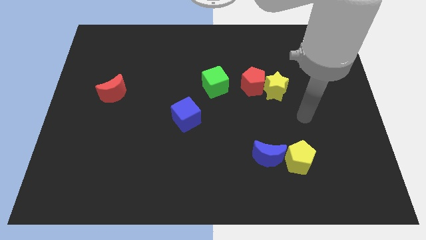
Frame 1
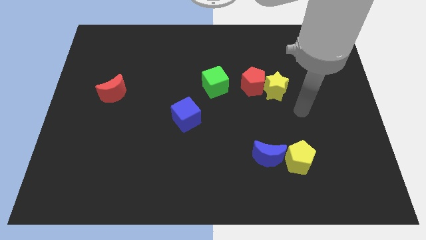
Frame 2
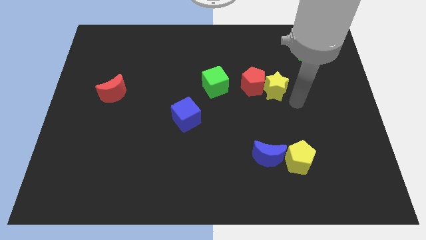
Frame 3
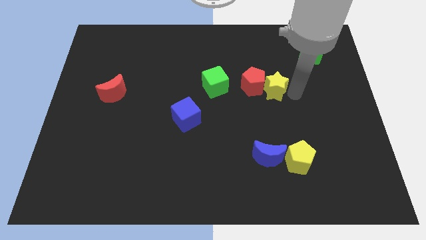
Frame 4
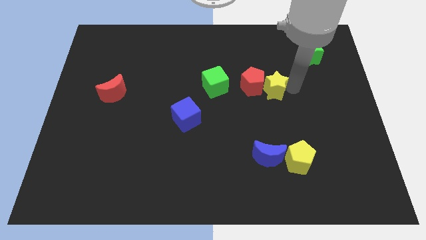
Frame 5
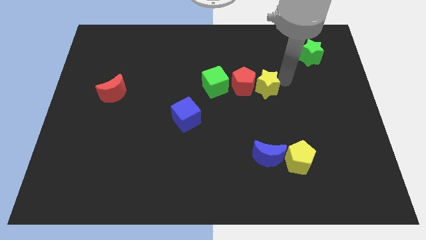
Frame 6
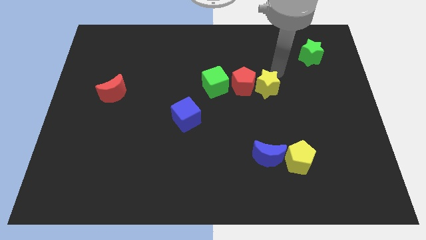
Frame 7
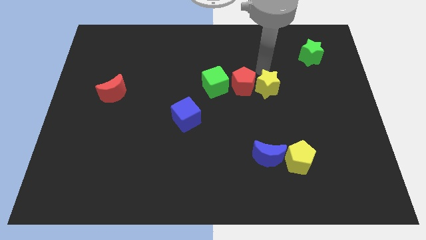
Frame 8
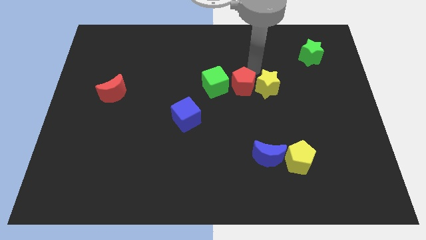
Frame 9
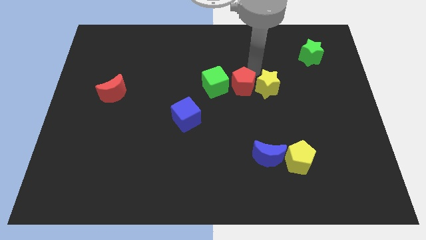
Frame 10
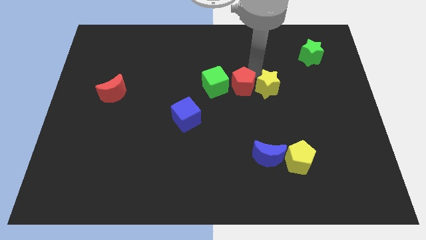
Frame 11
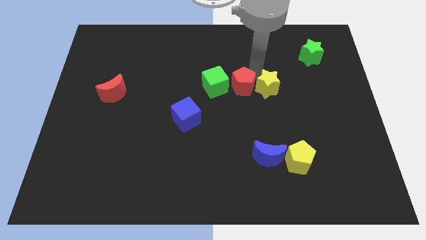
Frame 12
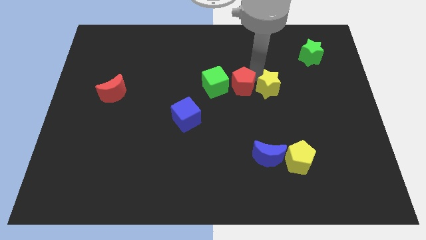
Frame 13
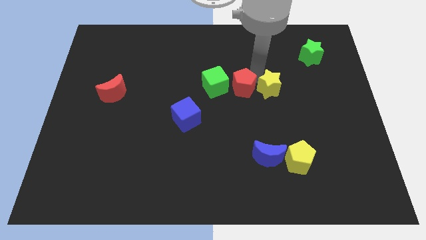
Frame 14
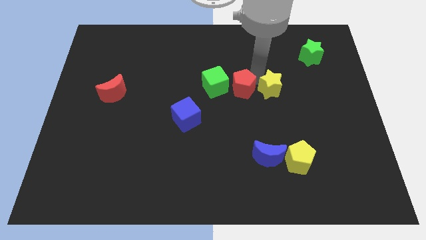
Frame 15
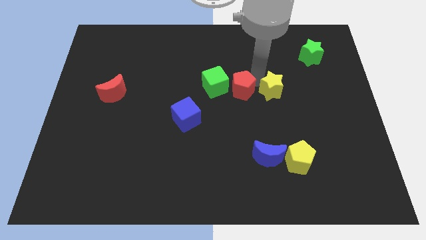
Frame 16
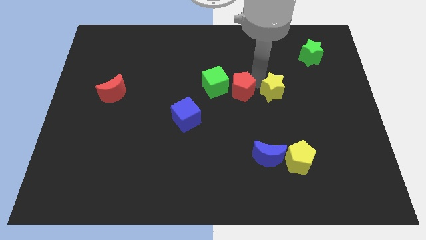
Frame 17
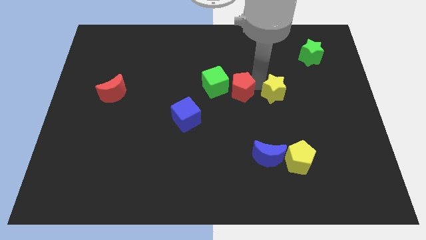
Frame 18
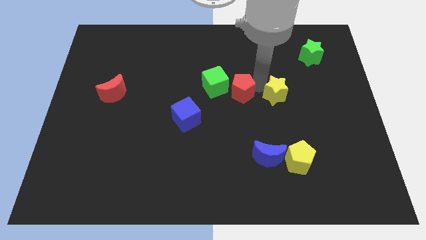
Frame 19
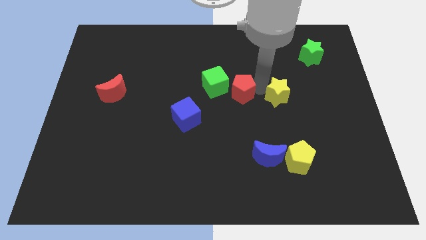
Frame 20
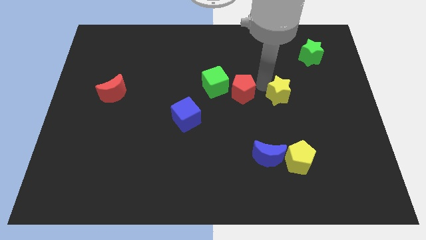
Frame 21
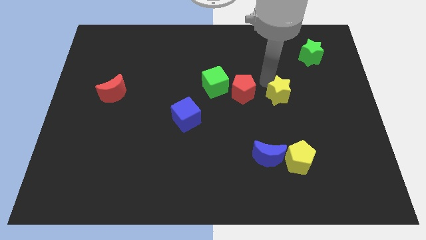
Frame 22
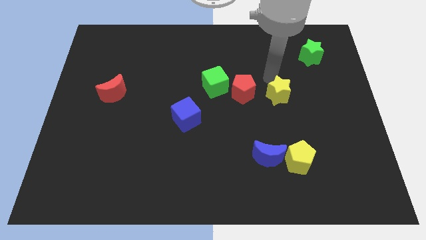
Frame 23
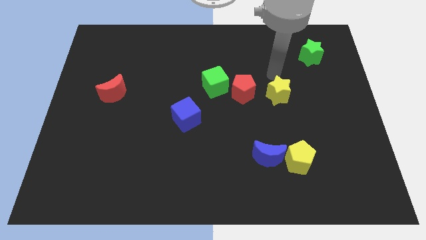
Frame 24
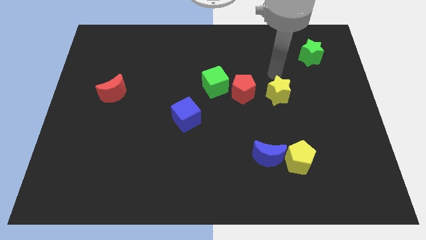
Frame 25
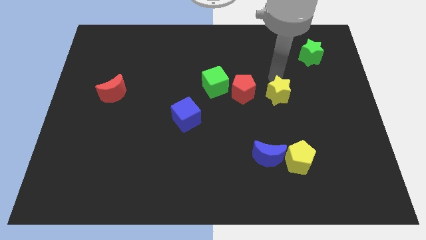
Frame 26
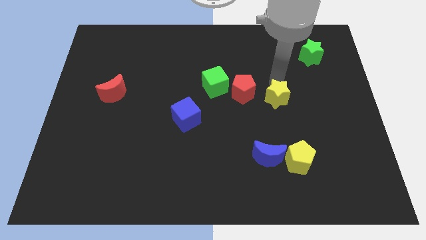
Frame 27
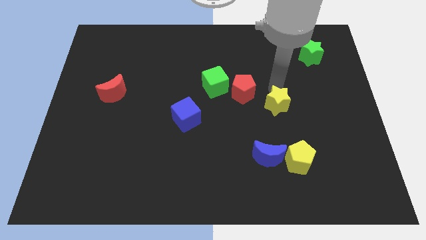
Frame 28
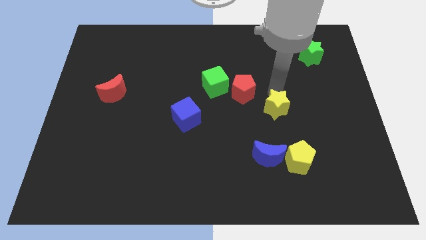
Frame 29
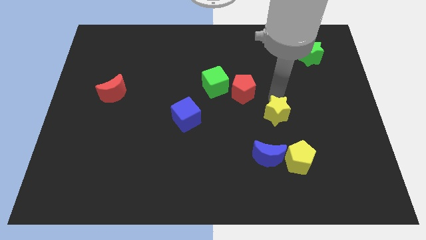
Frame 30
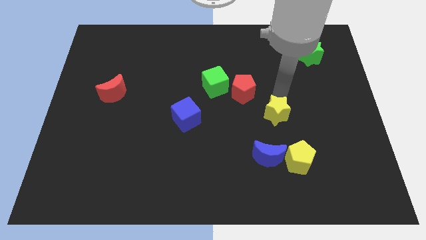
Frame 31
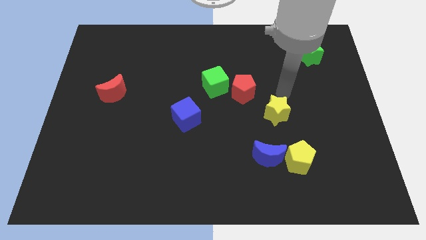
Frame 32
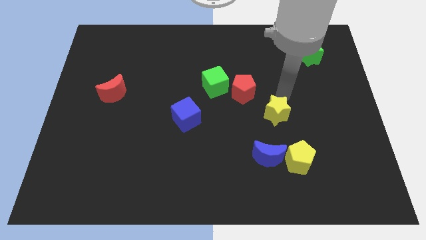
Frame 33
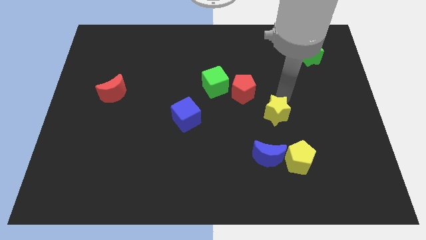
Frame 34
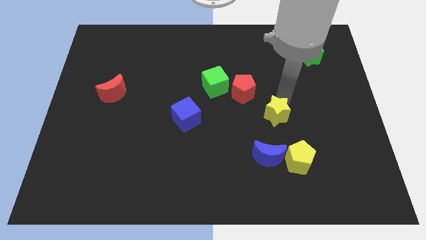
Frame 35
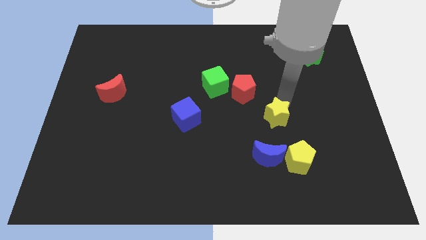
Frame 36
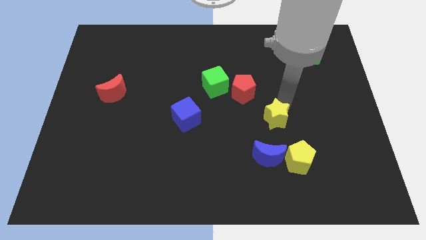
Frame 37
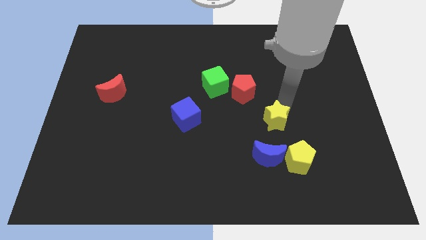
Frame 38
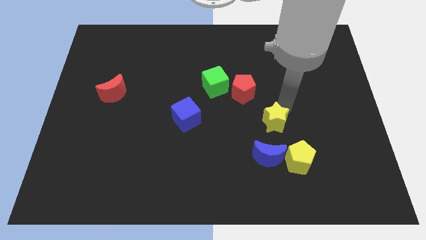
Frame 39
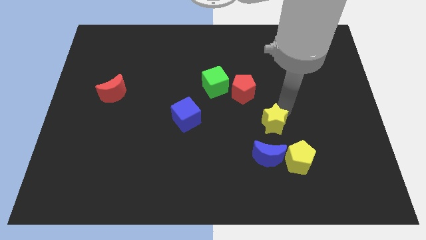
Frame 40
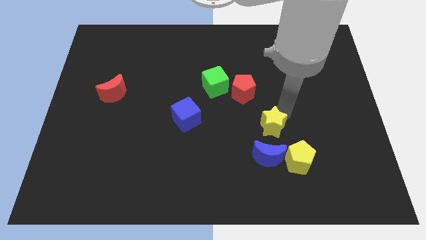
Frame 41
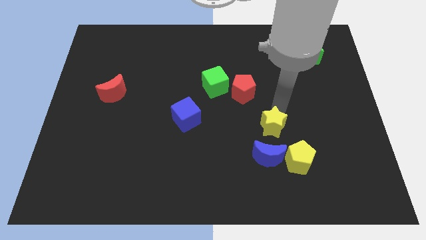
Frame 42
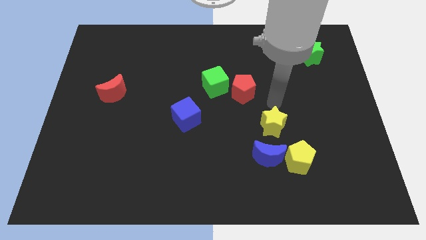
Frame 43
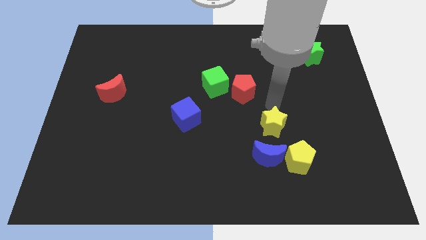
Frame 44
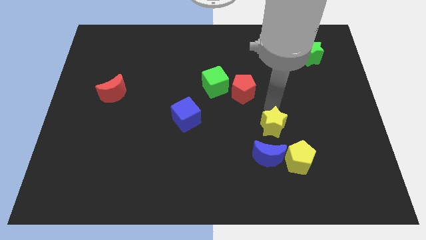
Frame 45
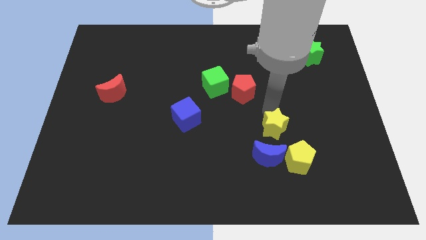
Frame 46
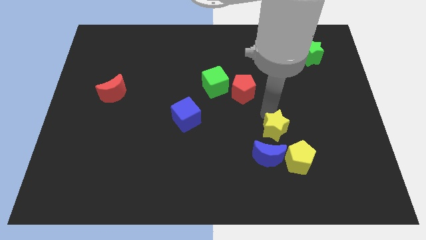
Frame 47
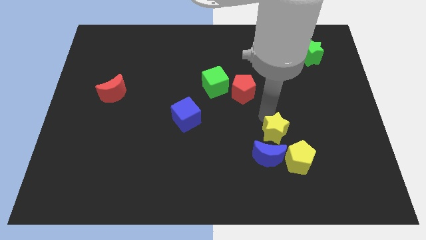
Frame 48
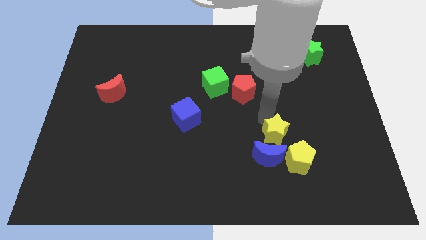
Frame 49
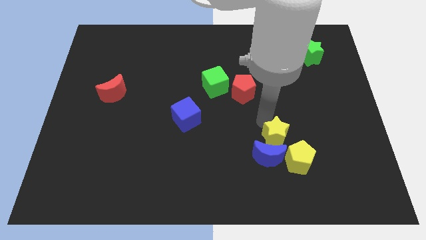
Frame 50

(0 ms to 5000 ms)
put the yellow star towards the blue moon

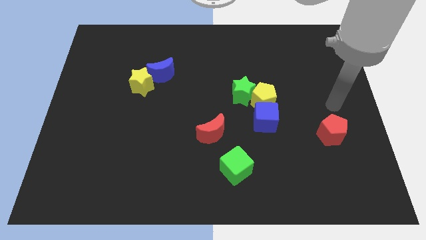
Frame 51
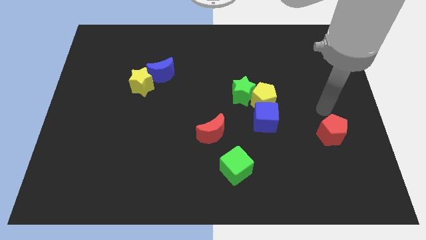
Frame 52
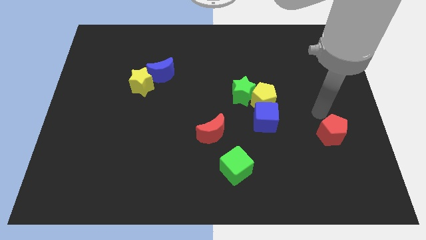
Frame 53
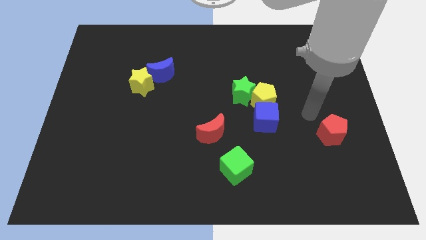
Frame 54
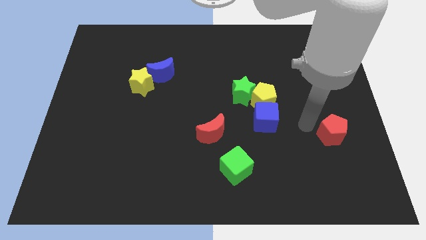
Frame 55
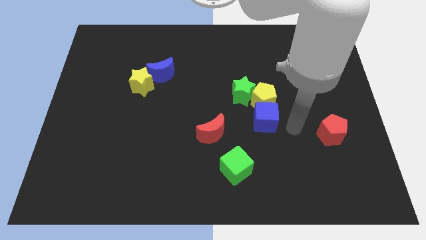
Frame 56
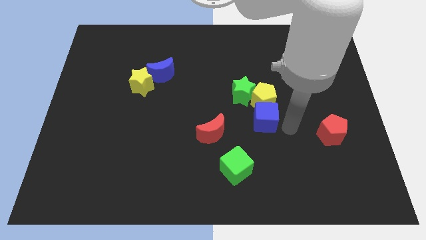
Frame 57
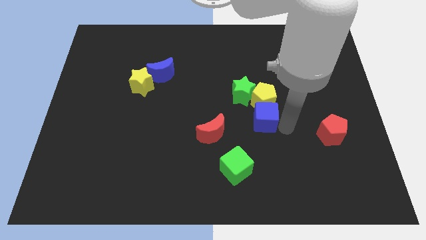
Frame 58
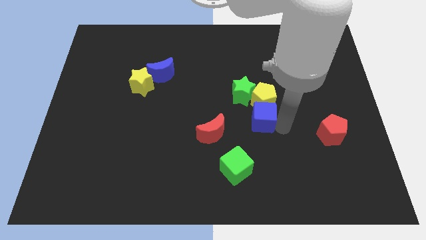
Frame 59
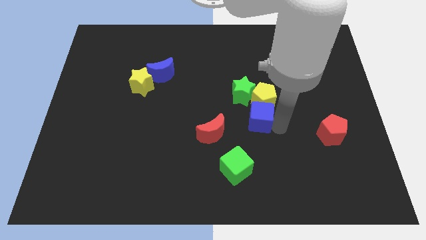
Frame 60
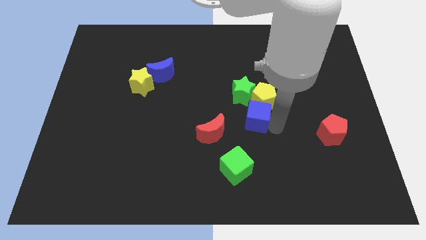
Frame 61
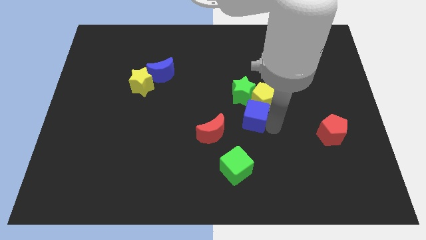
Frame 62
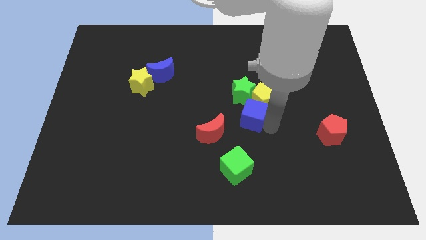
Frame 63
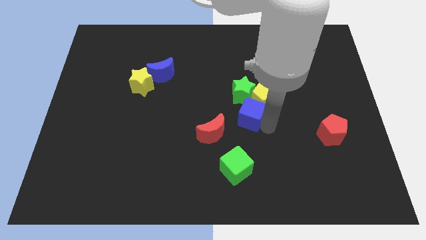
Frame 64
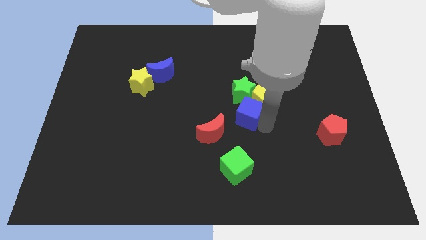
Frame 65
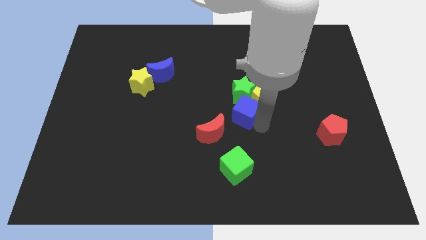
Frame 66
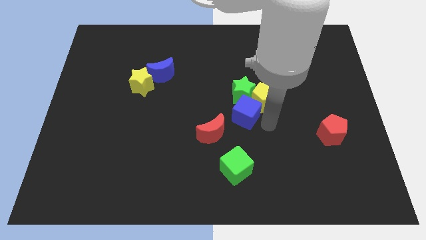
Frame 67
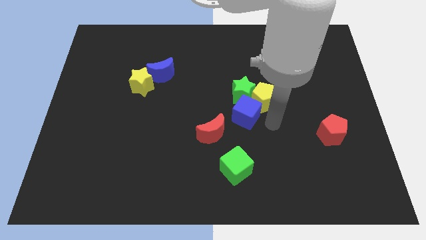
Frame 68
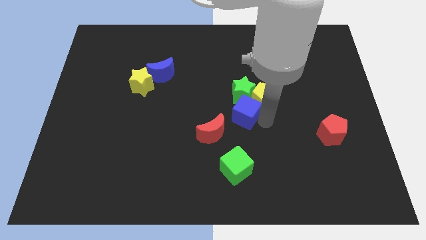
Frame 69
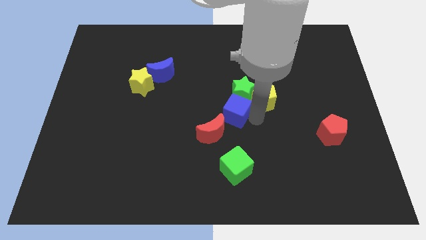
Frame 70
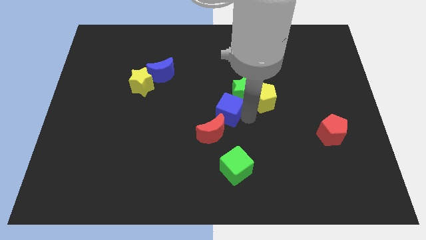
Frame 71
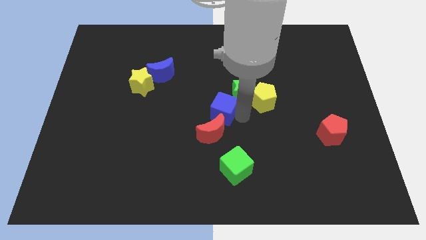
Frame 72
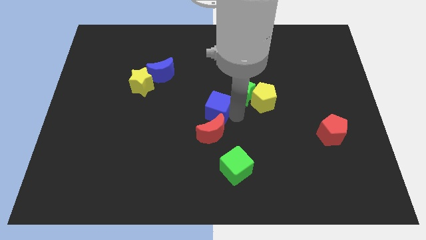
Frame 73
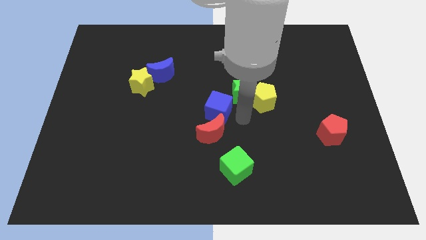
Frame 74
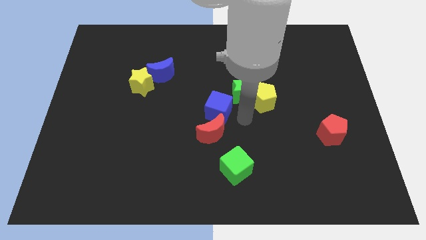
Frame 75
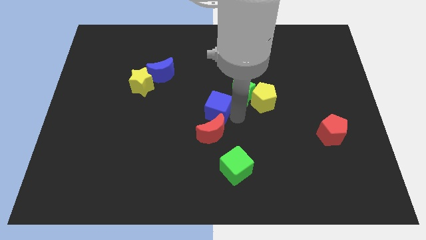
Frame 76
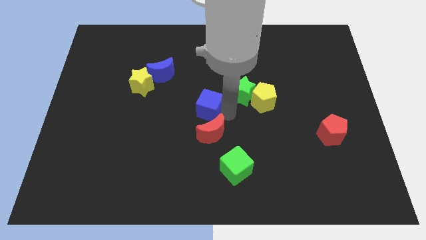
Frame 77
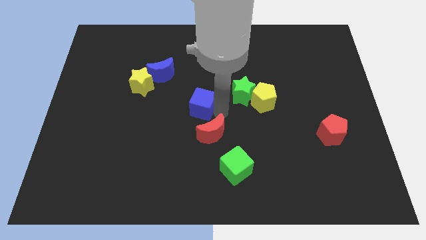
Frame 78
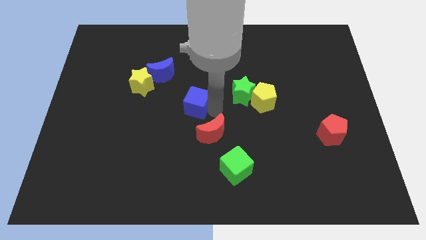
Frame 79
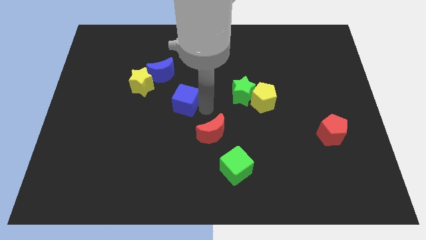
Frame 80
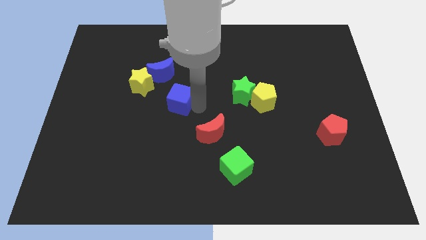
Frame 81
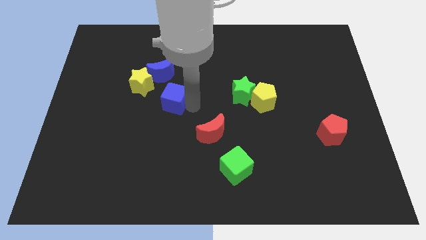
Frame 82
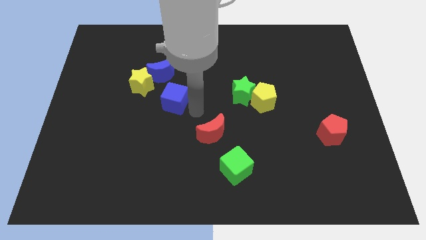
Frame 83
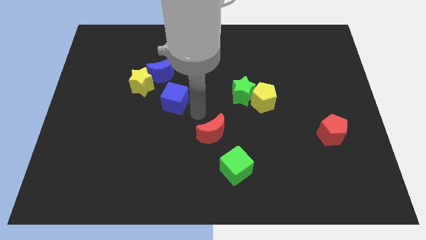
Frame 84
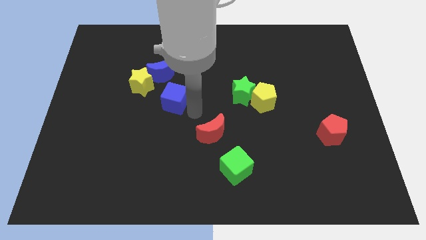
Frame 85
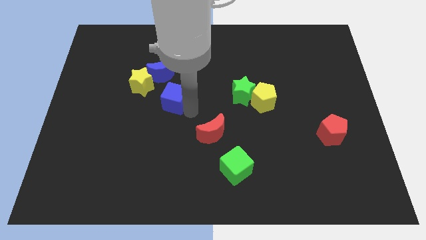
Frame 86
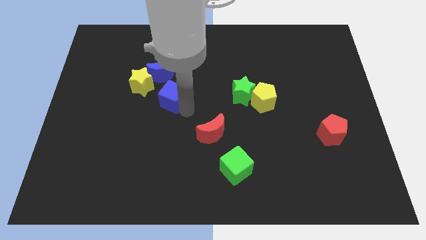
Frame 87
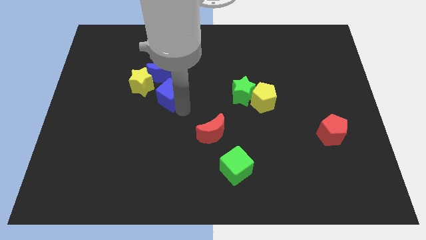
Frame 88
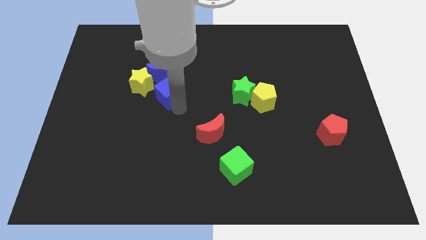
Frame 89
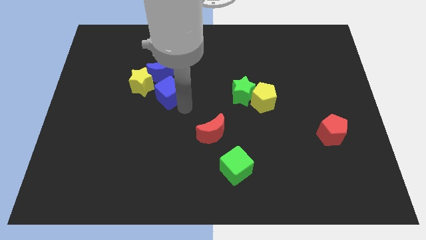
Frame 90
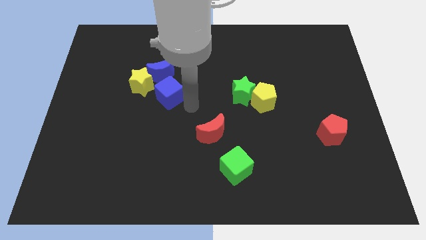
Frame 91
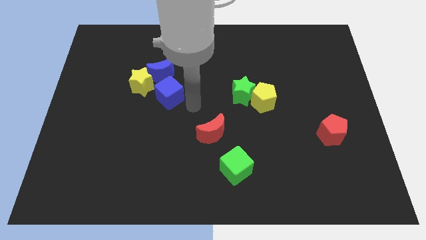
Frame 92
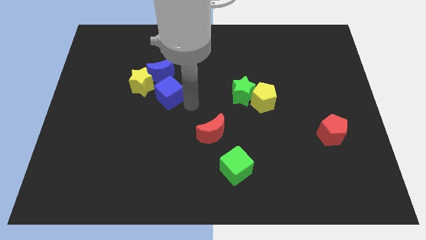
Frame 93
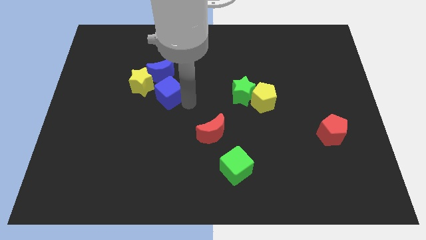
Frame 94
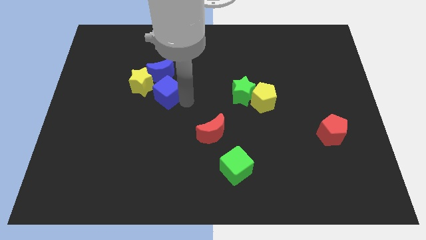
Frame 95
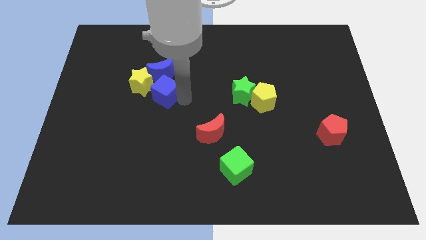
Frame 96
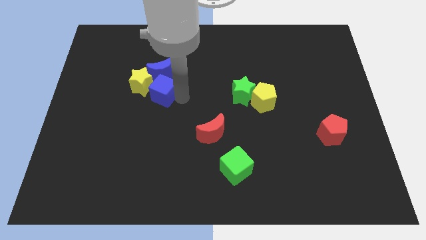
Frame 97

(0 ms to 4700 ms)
slide the blue cube close to the yellow star
